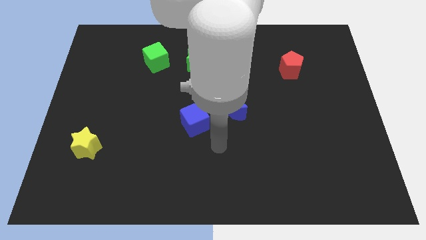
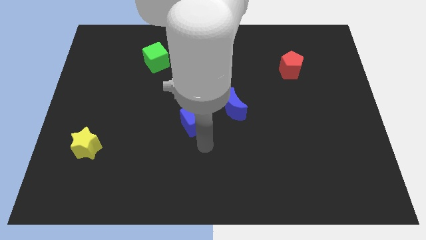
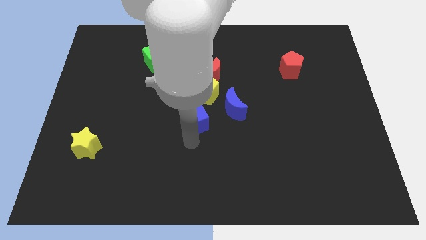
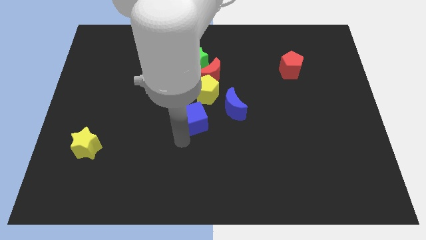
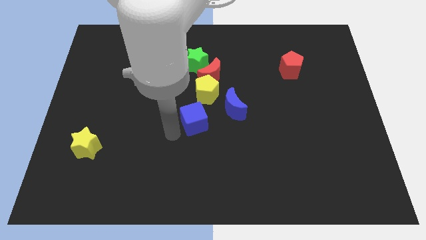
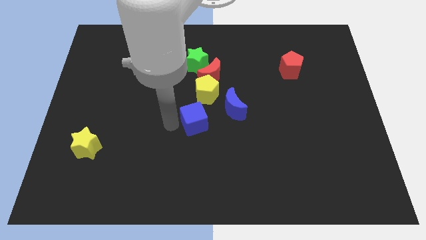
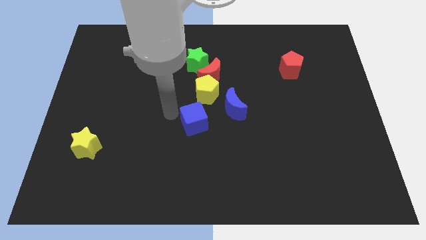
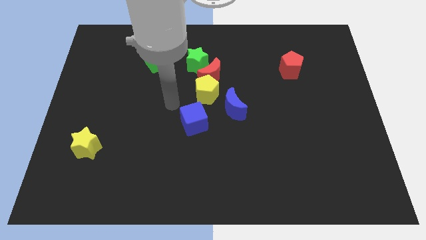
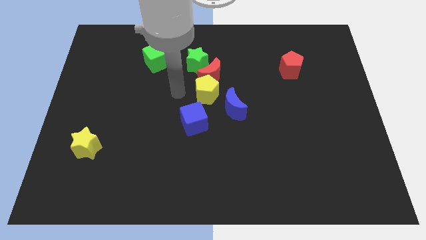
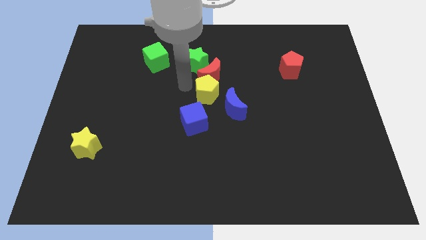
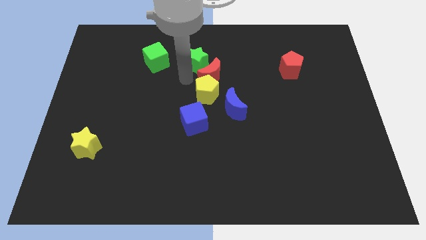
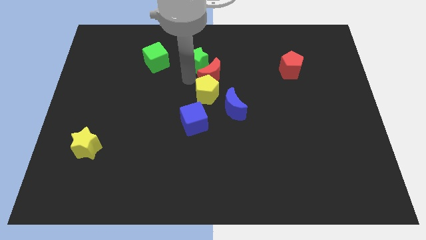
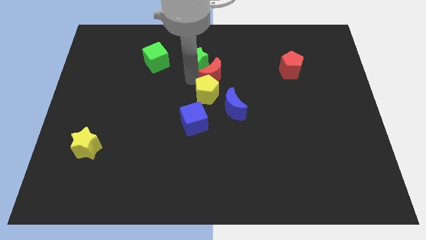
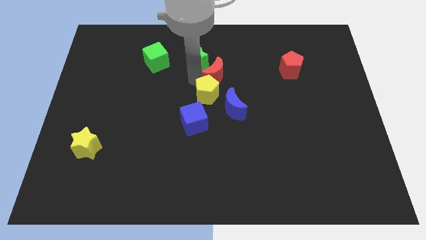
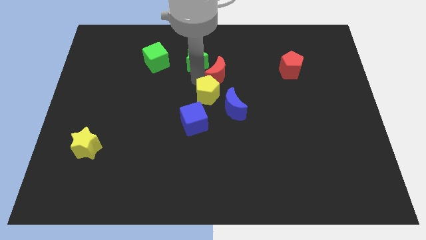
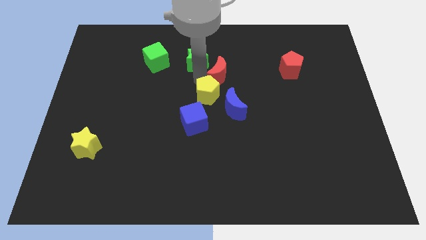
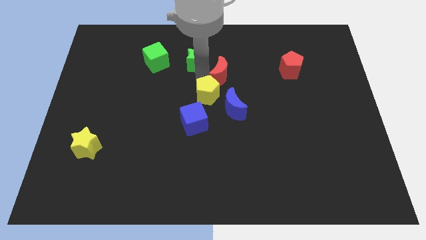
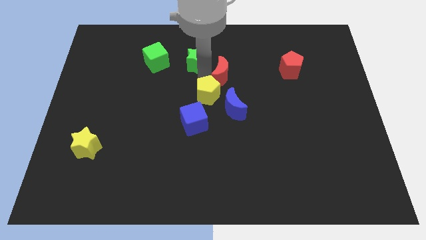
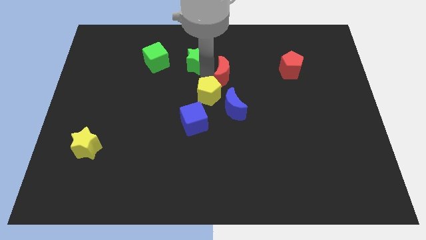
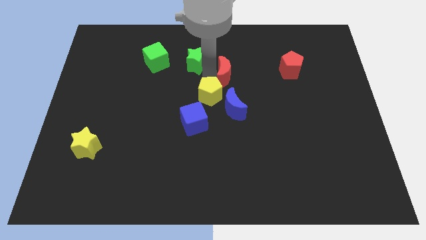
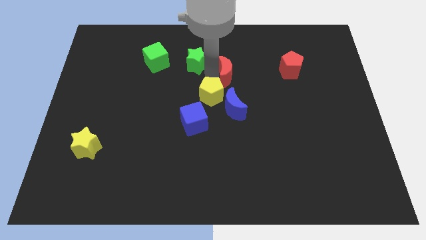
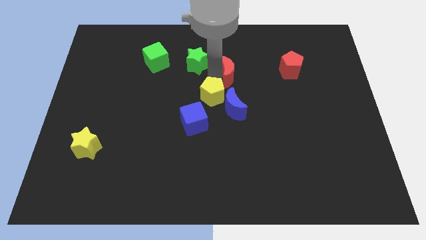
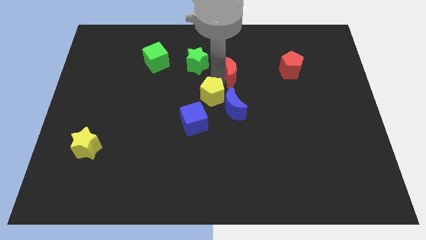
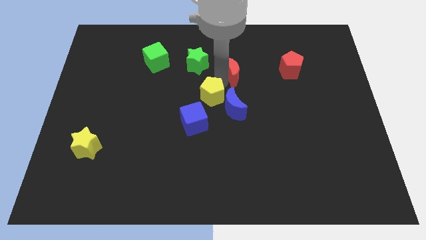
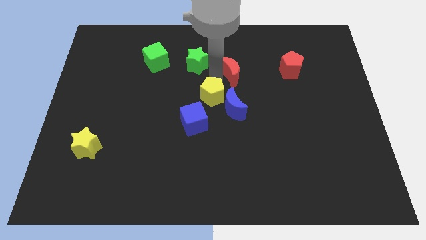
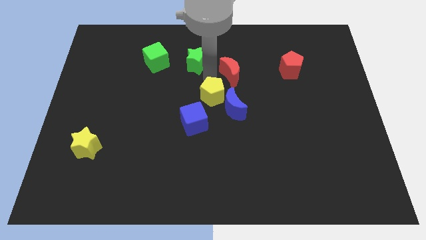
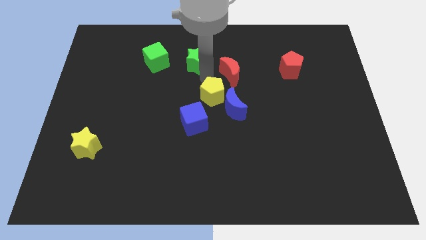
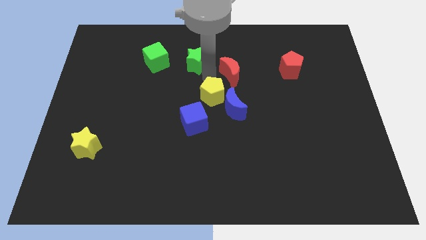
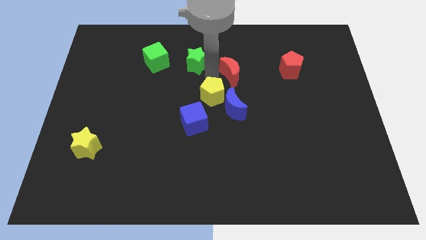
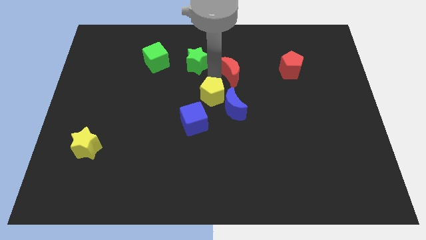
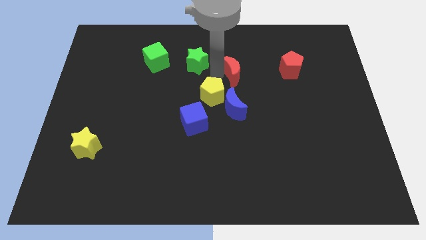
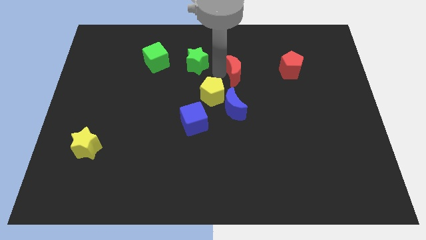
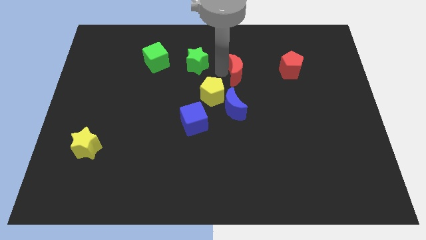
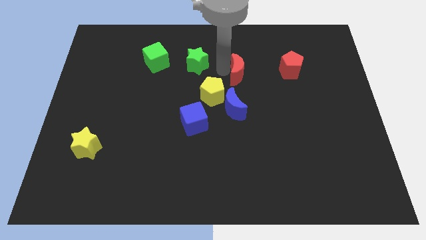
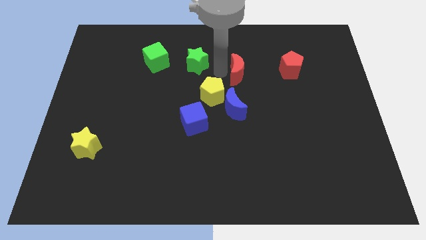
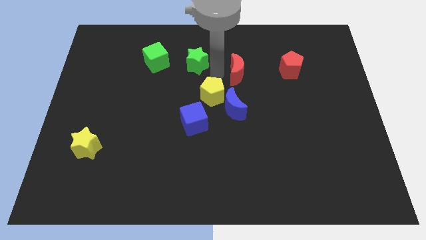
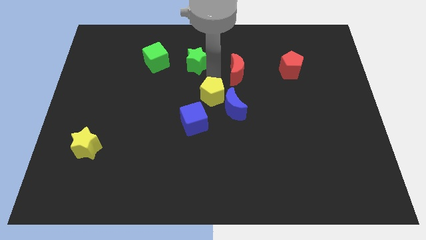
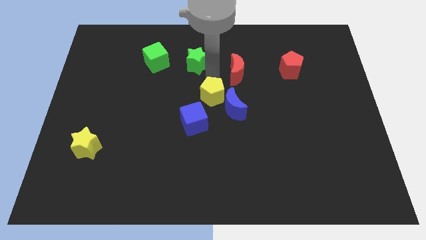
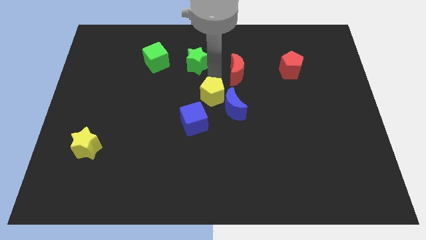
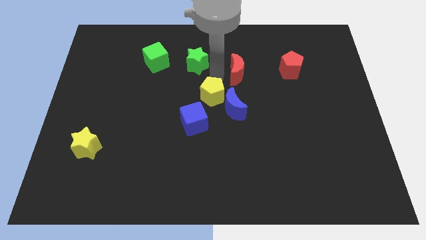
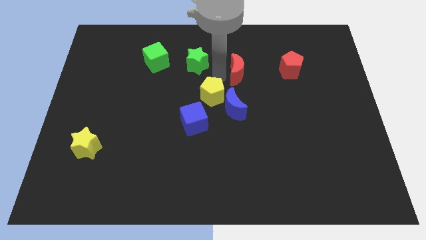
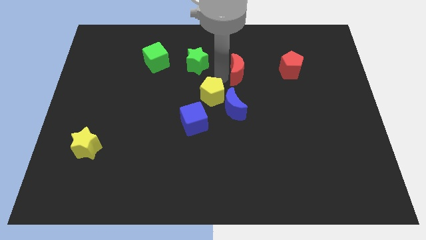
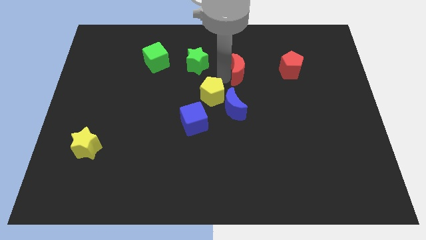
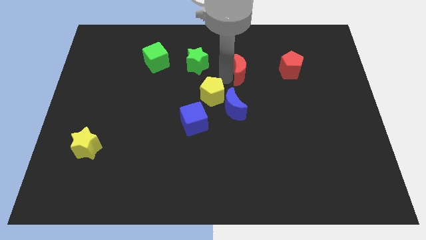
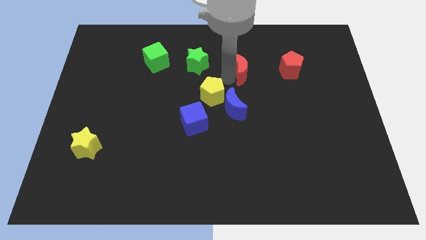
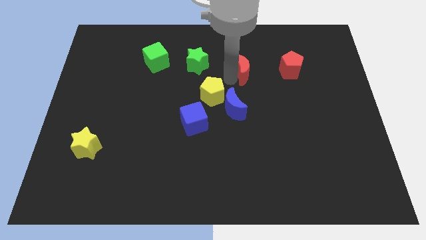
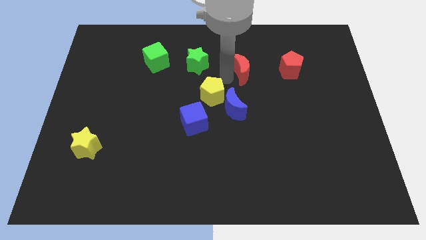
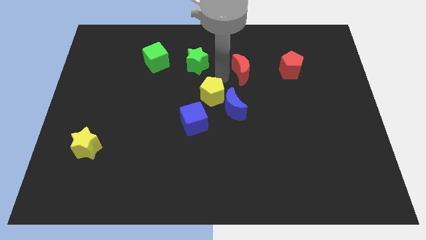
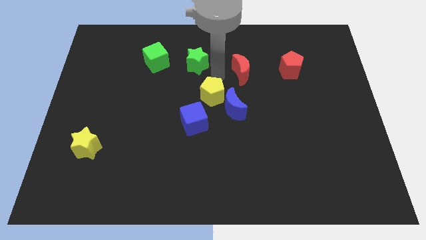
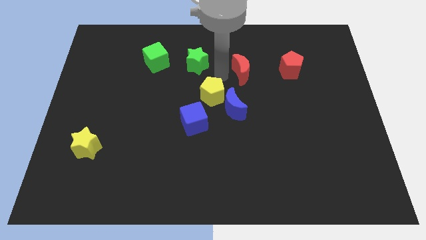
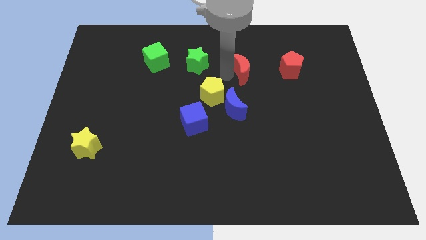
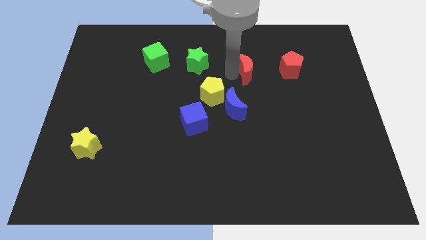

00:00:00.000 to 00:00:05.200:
move the red moon away from the yellow pentagon and green star

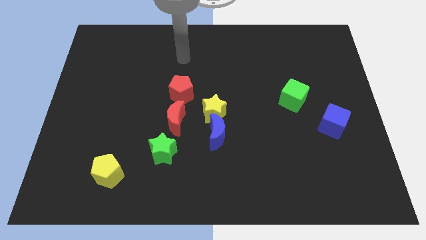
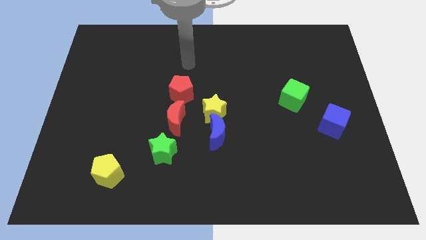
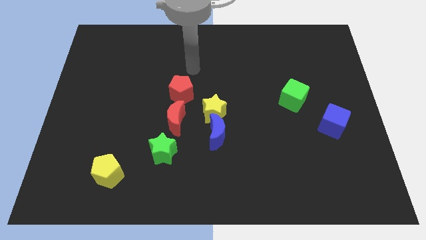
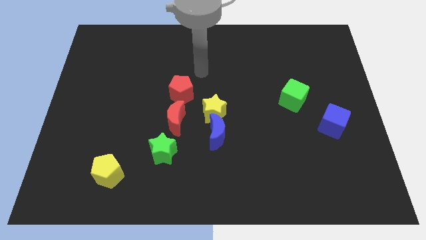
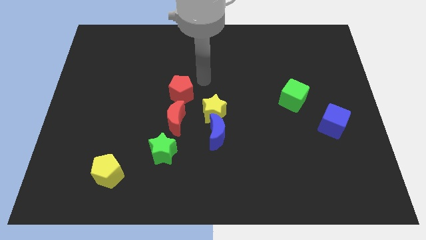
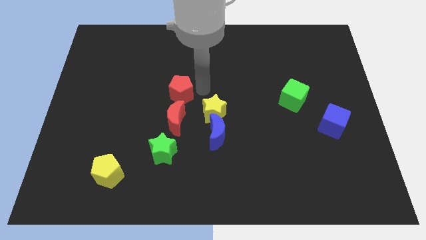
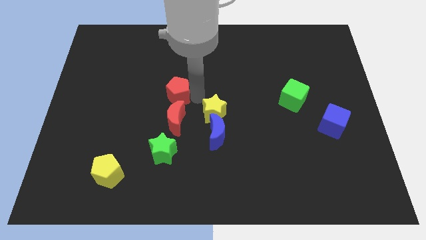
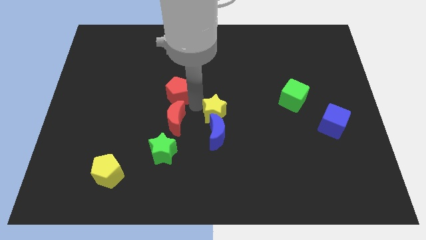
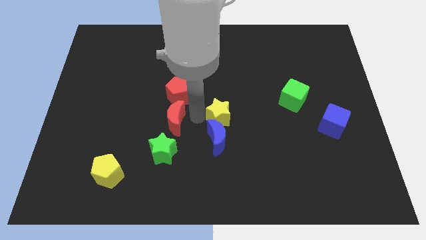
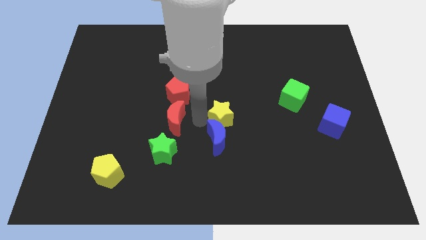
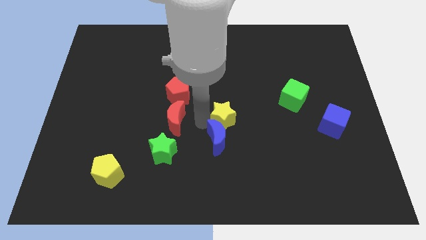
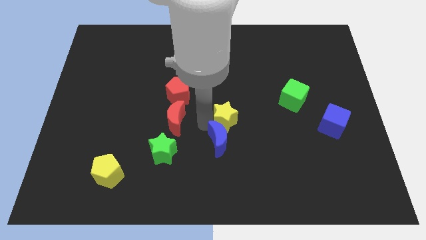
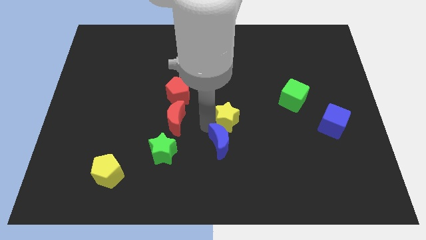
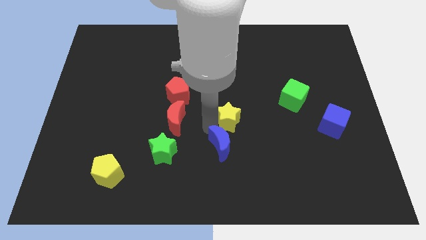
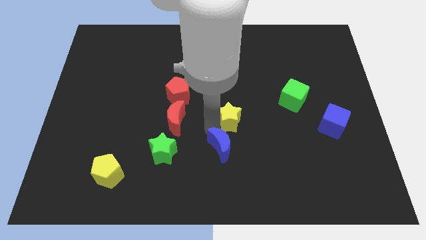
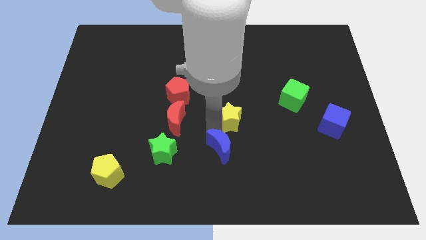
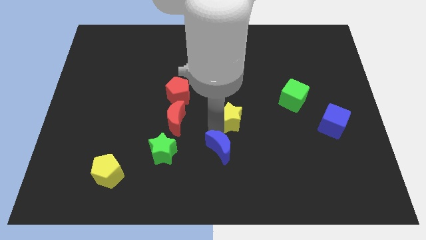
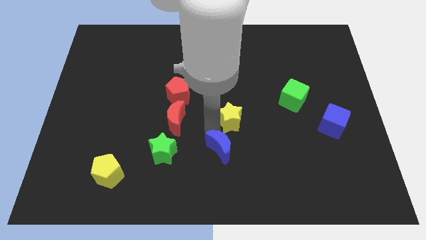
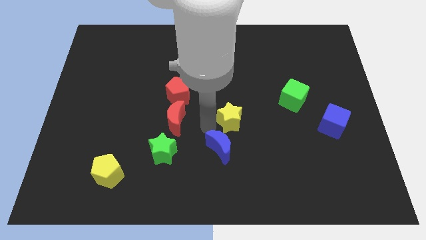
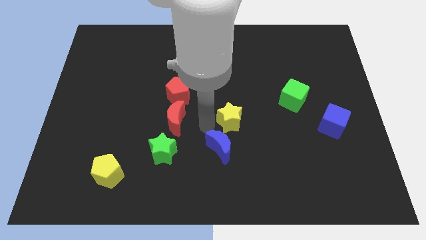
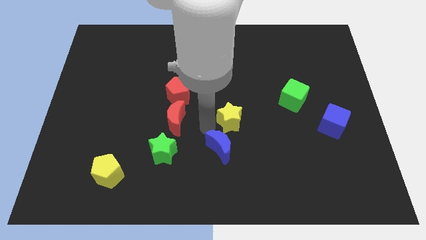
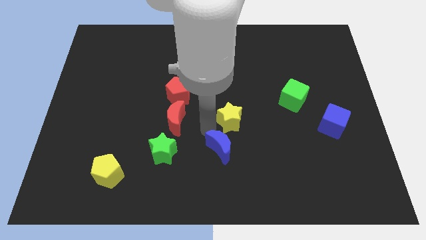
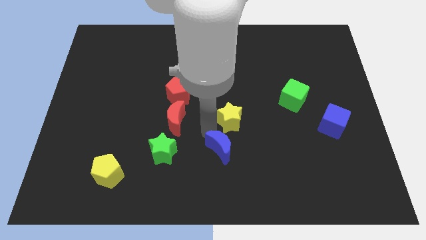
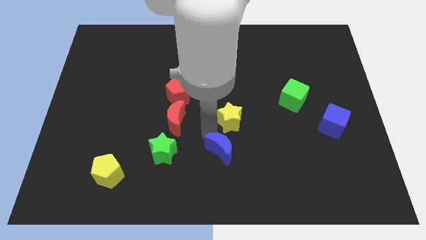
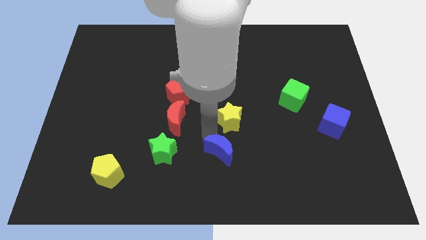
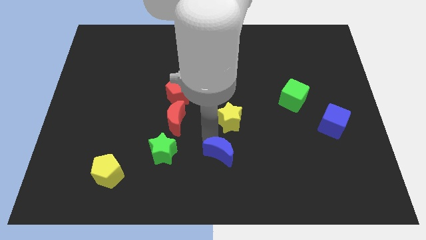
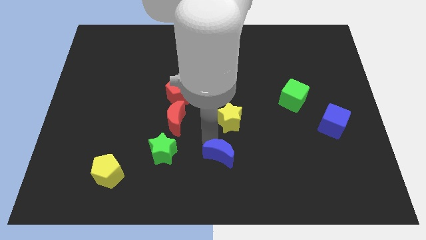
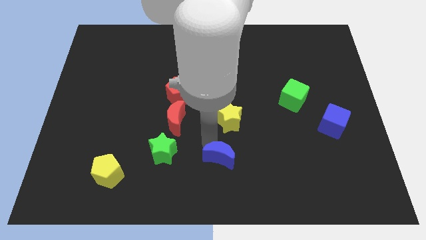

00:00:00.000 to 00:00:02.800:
move the blue moon away from the yellow star and red moon

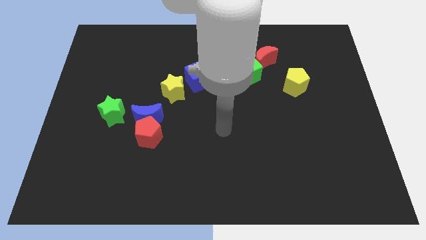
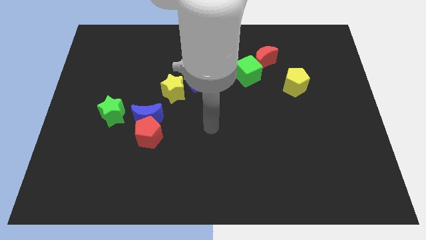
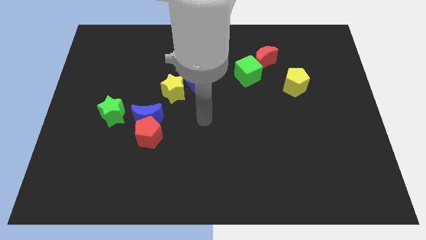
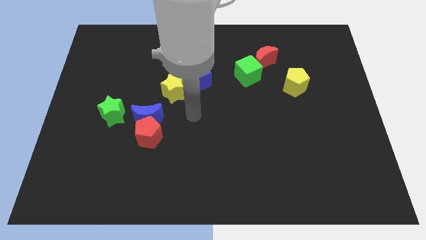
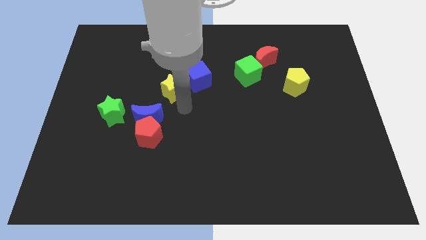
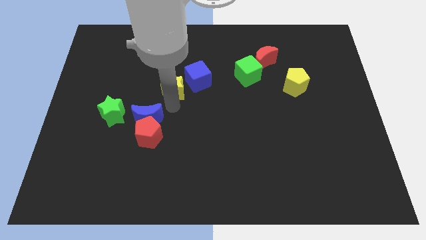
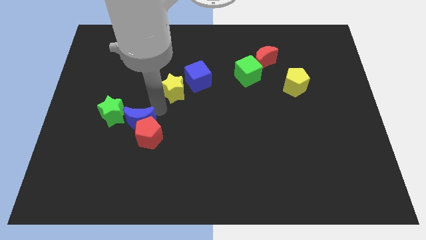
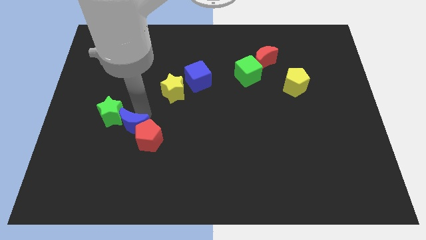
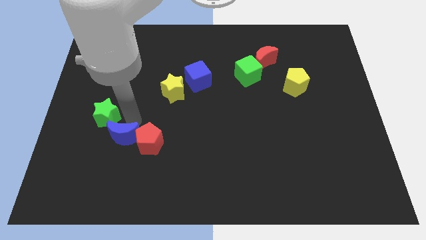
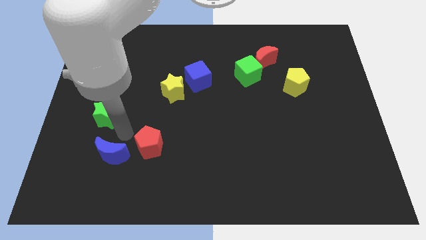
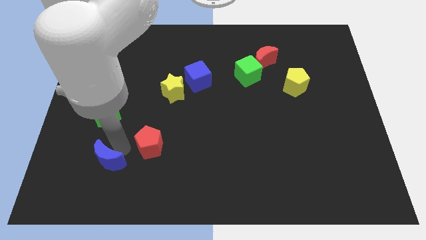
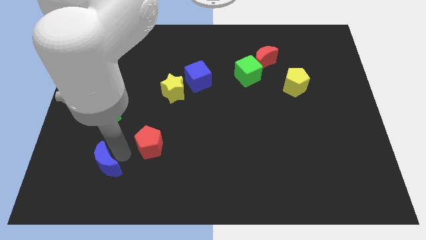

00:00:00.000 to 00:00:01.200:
move the red pentagon away from the blue moon

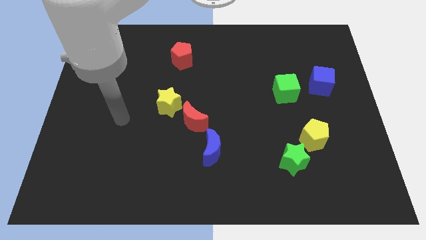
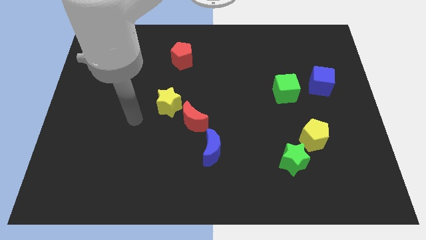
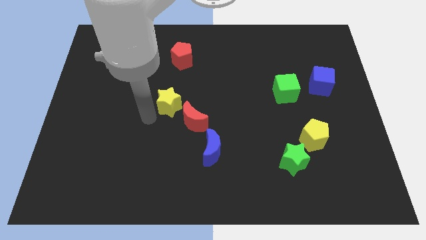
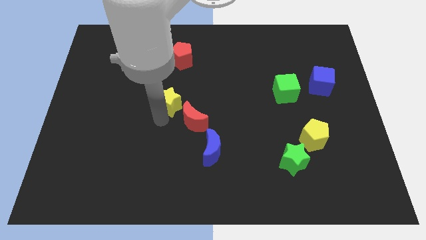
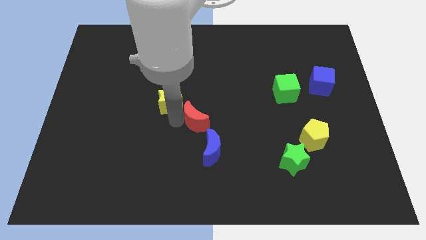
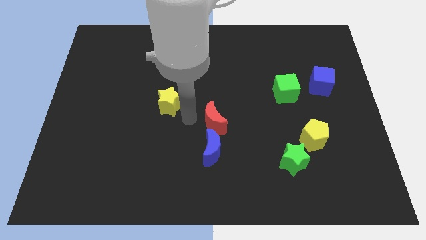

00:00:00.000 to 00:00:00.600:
move the yellow star away from the red moon
